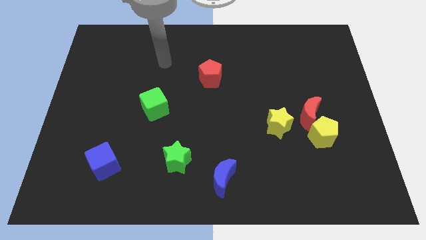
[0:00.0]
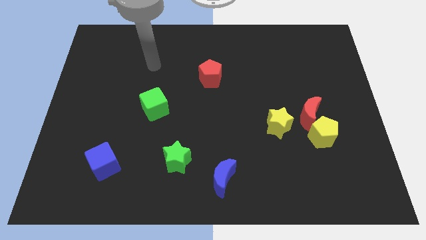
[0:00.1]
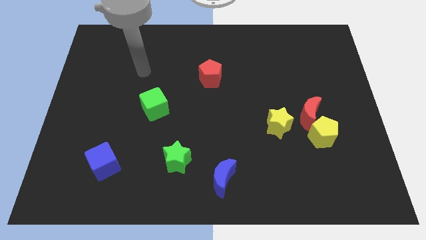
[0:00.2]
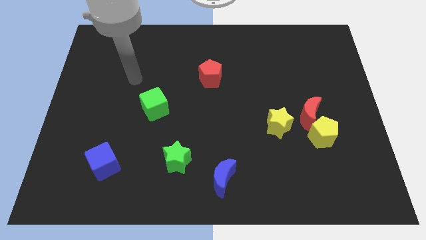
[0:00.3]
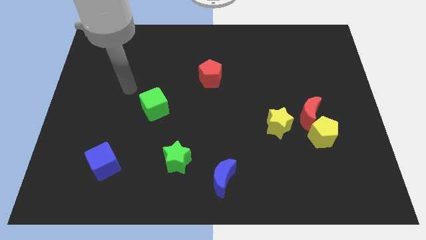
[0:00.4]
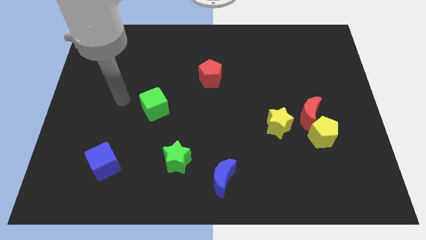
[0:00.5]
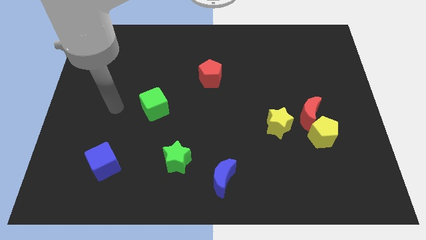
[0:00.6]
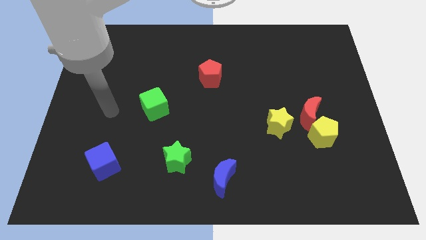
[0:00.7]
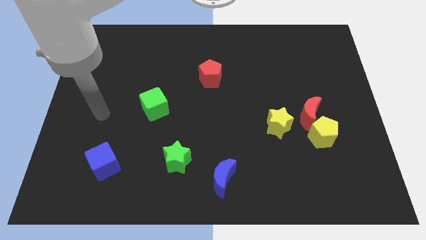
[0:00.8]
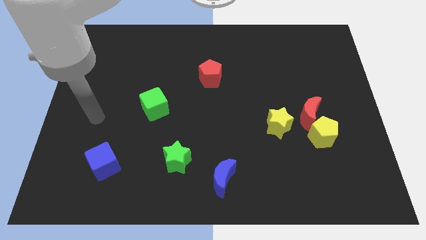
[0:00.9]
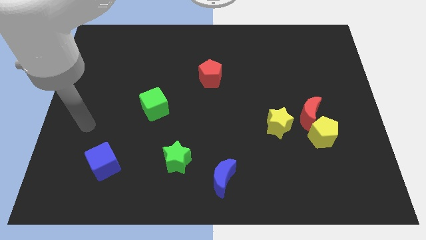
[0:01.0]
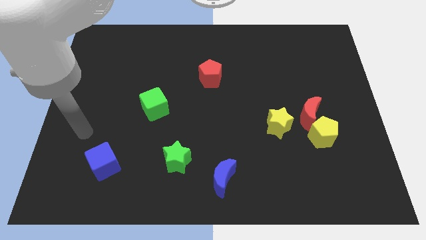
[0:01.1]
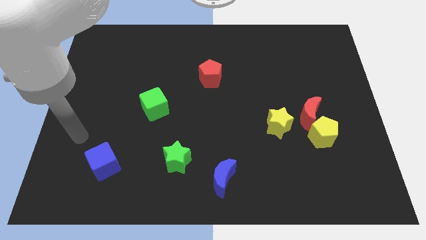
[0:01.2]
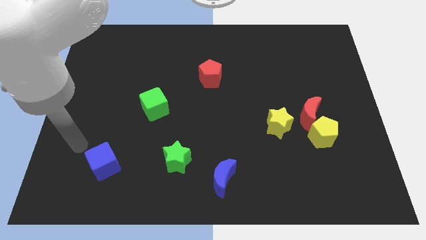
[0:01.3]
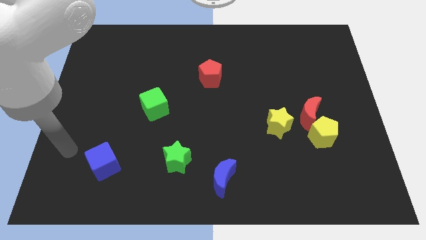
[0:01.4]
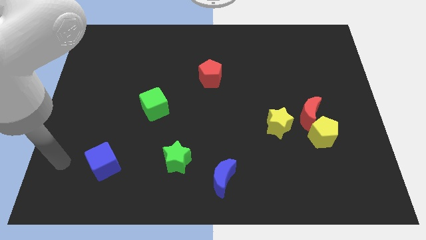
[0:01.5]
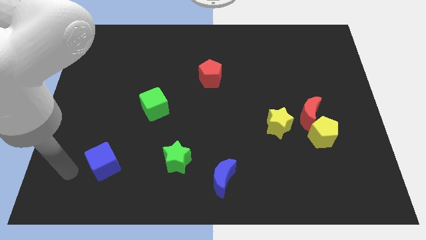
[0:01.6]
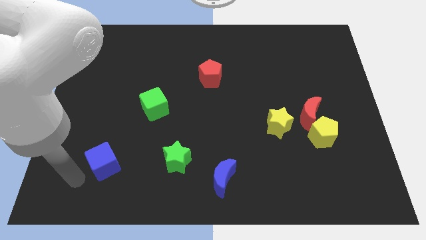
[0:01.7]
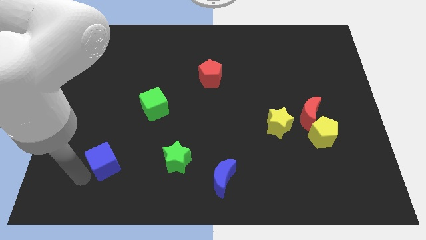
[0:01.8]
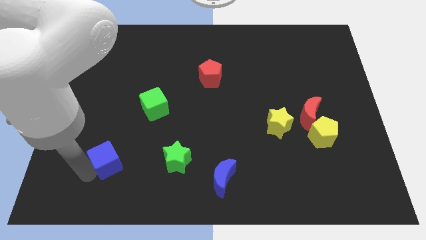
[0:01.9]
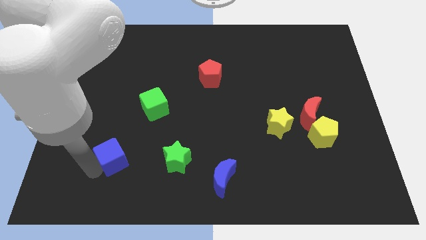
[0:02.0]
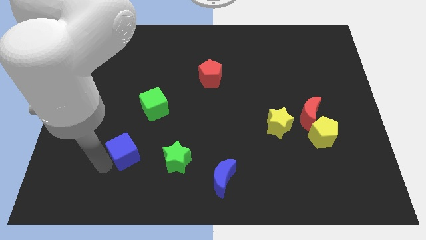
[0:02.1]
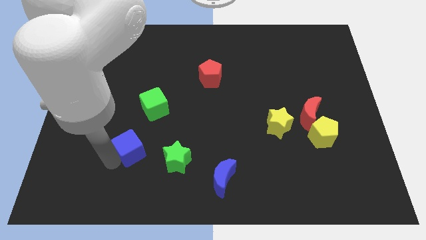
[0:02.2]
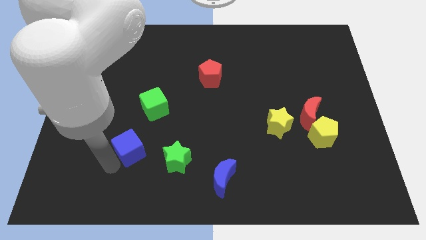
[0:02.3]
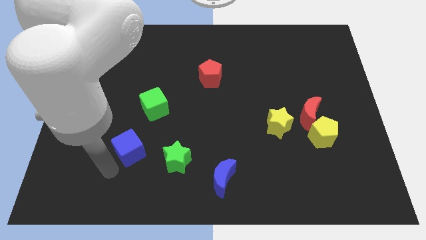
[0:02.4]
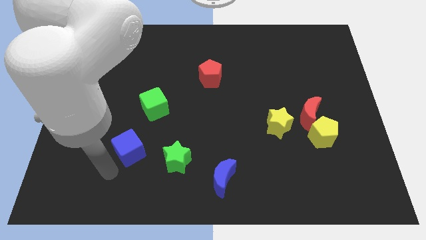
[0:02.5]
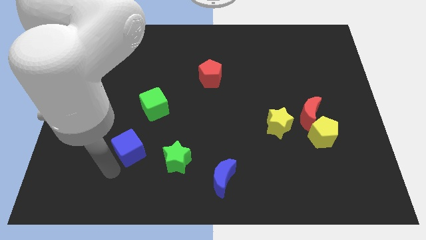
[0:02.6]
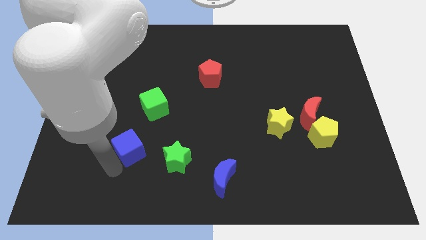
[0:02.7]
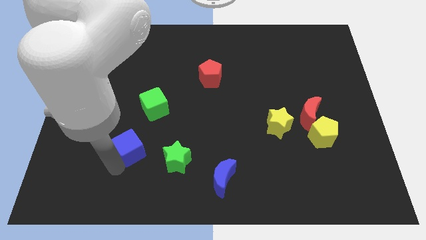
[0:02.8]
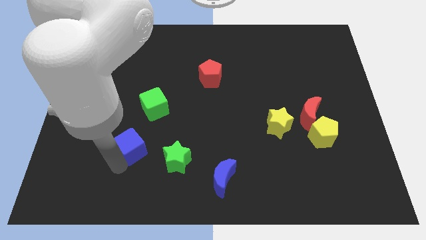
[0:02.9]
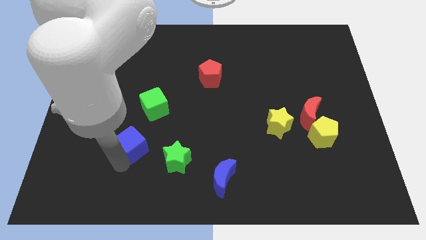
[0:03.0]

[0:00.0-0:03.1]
slightly move the blue cube upwards and right diagonally

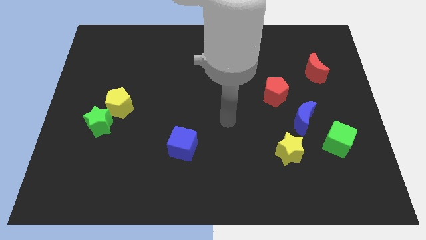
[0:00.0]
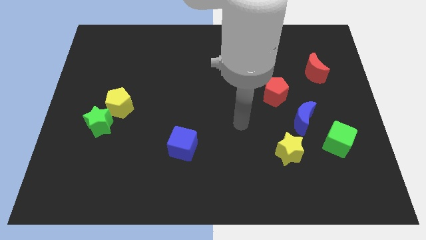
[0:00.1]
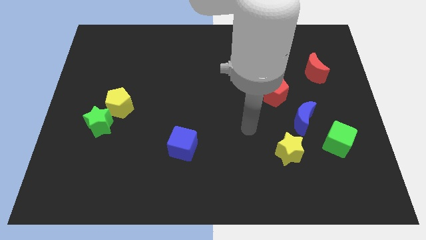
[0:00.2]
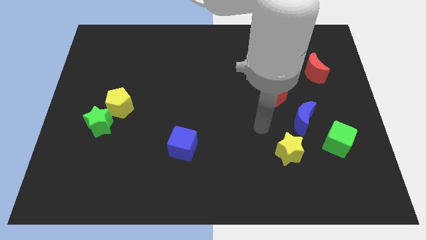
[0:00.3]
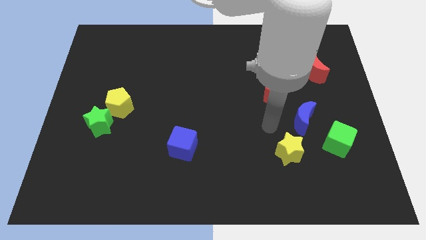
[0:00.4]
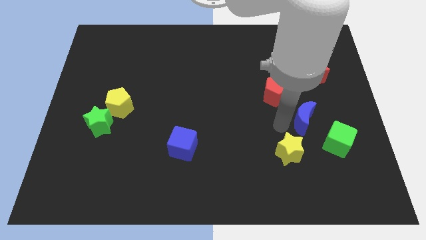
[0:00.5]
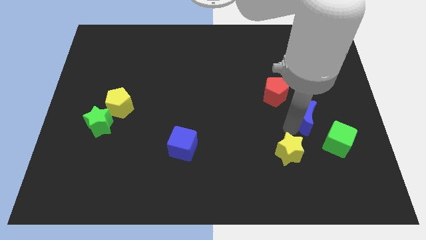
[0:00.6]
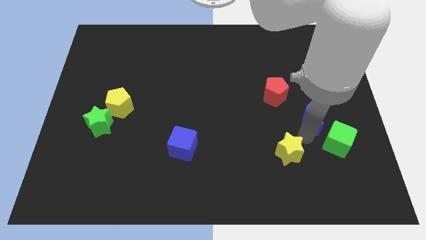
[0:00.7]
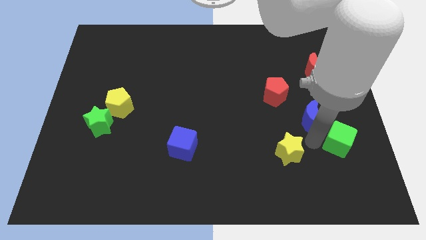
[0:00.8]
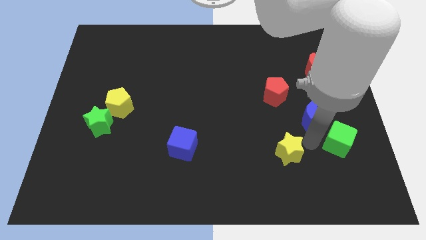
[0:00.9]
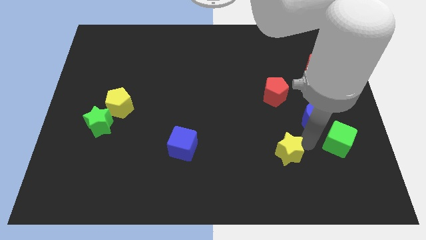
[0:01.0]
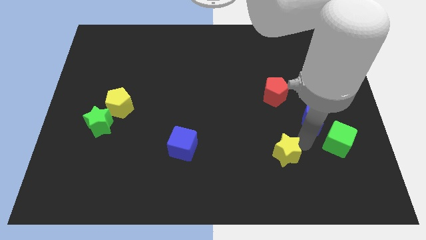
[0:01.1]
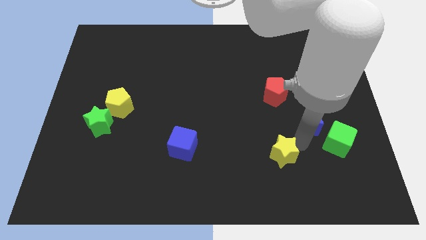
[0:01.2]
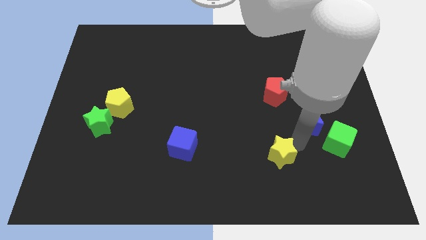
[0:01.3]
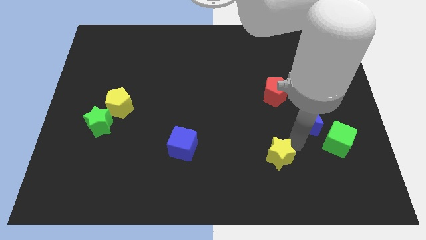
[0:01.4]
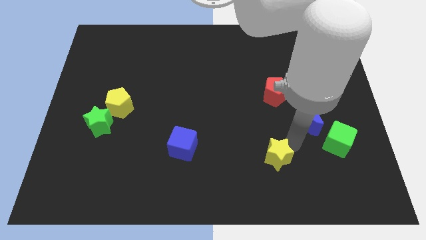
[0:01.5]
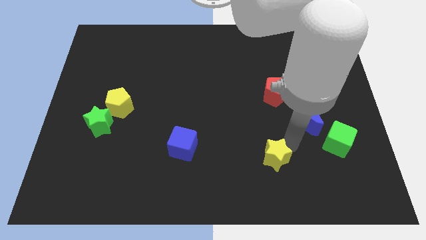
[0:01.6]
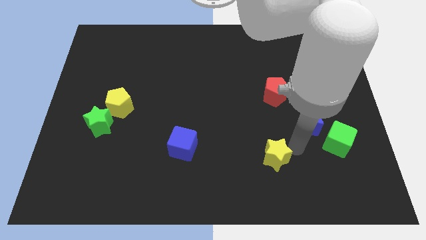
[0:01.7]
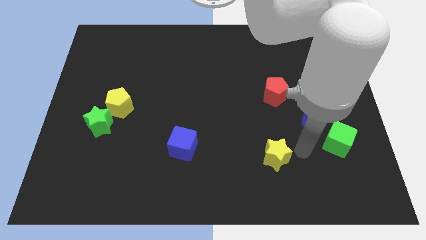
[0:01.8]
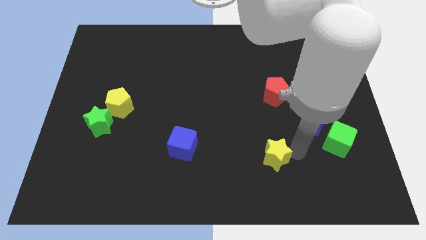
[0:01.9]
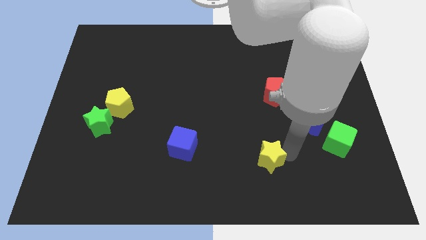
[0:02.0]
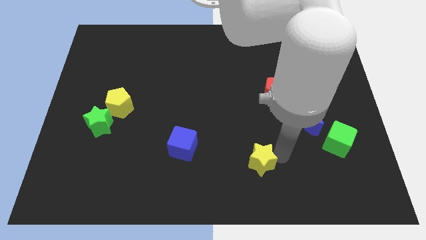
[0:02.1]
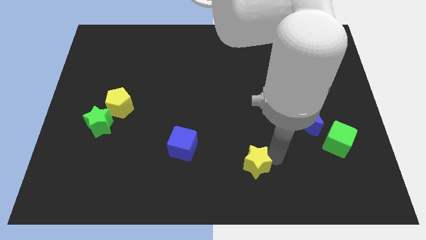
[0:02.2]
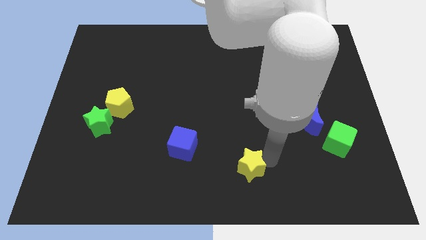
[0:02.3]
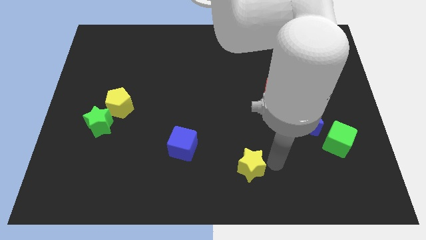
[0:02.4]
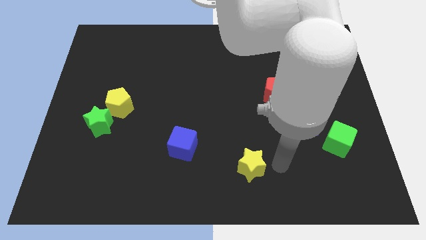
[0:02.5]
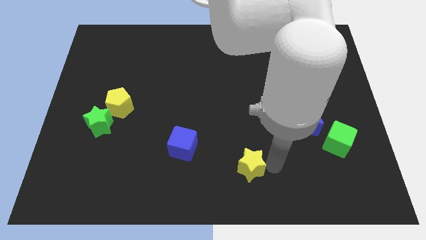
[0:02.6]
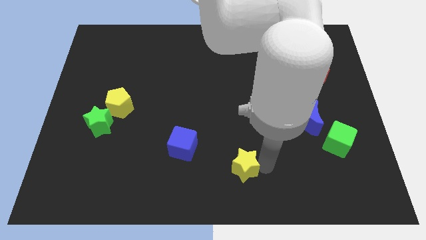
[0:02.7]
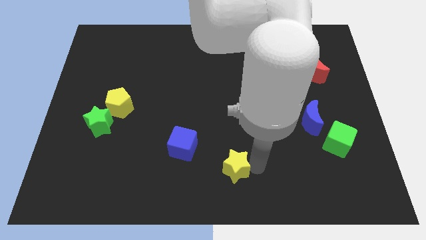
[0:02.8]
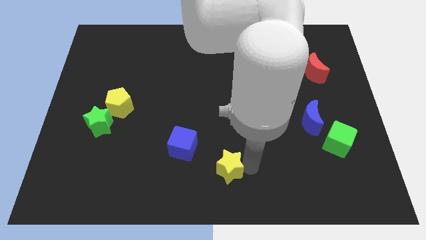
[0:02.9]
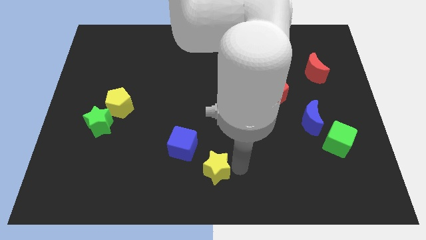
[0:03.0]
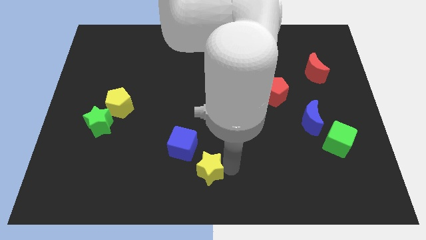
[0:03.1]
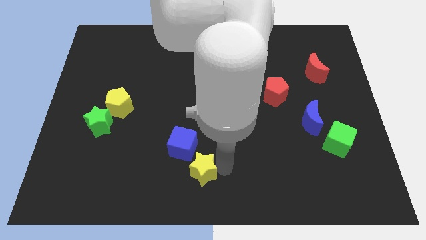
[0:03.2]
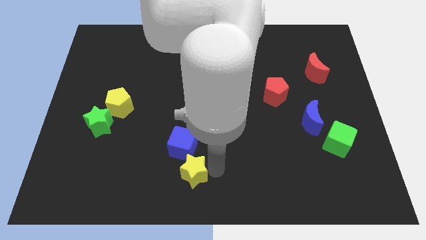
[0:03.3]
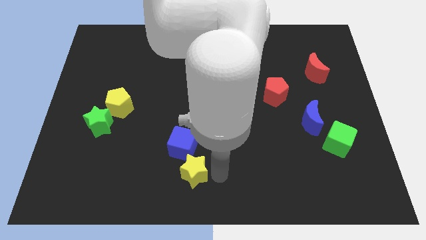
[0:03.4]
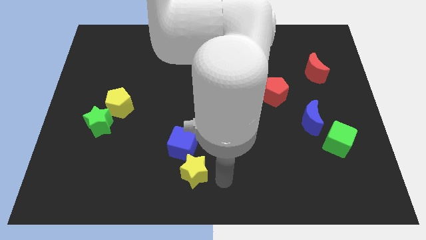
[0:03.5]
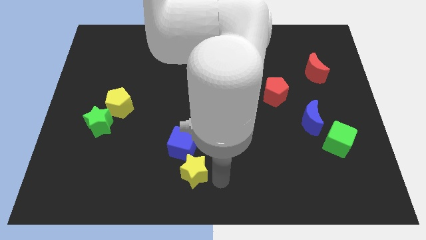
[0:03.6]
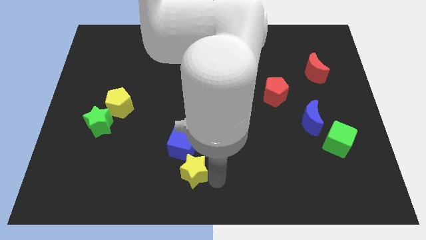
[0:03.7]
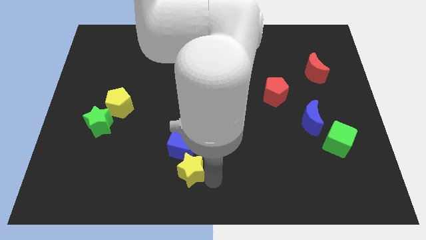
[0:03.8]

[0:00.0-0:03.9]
move the yellow star left

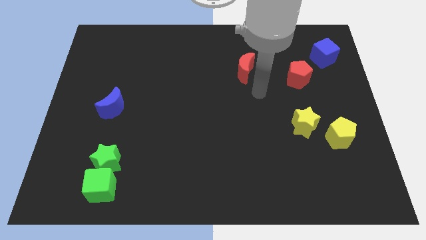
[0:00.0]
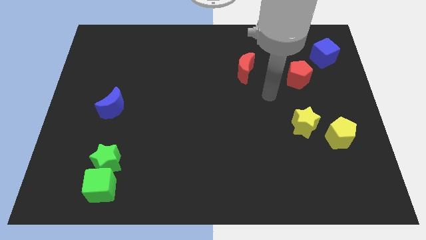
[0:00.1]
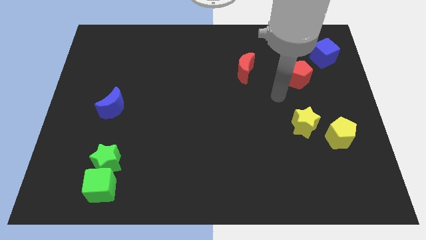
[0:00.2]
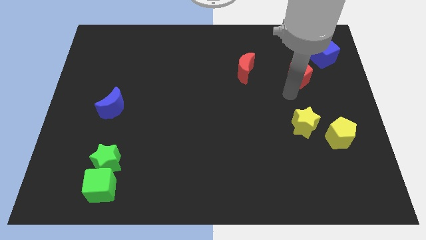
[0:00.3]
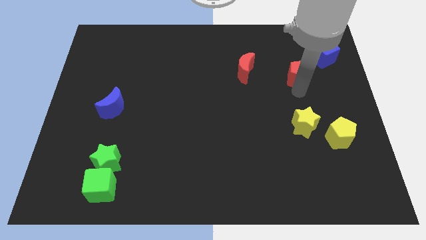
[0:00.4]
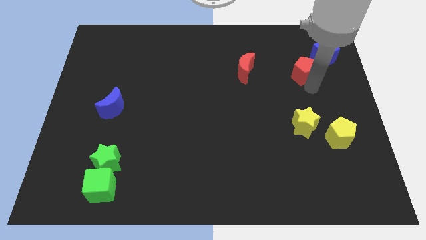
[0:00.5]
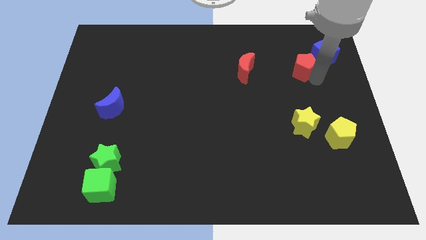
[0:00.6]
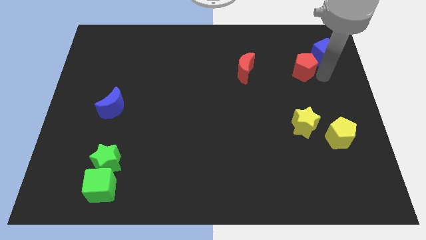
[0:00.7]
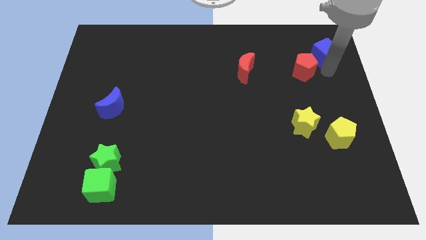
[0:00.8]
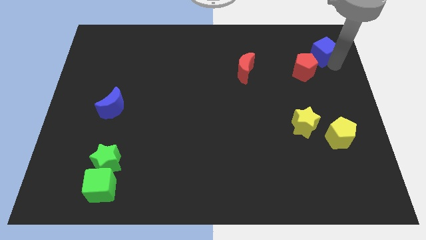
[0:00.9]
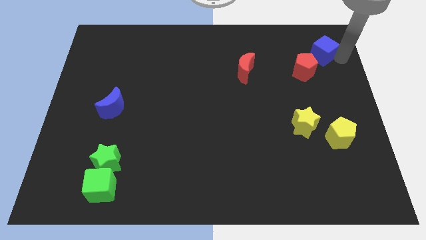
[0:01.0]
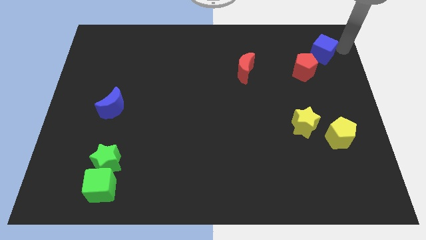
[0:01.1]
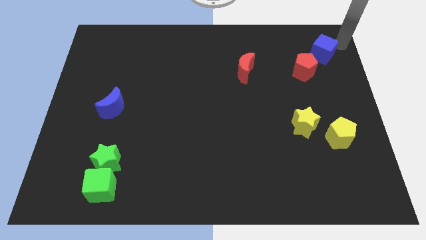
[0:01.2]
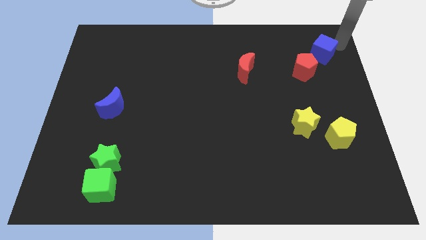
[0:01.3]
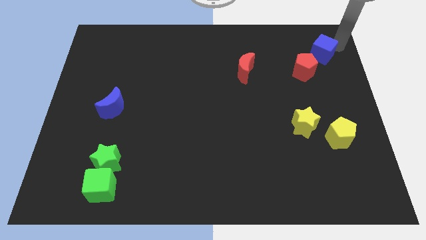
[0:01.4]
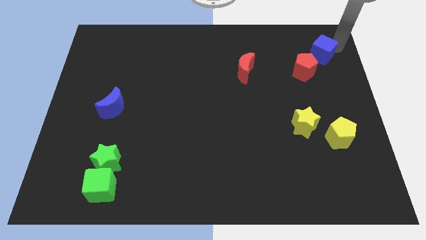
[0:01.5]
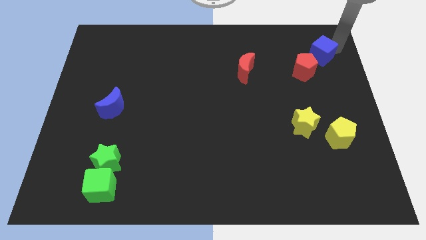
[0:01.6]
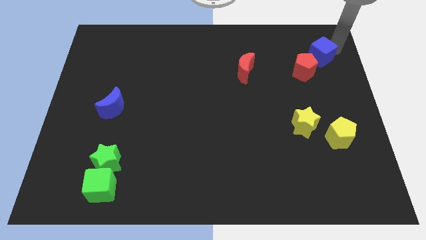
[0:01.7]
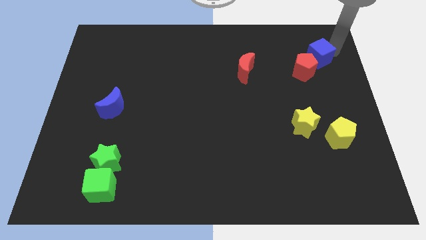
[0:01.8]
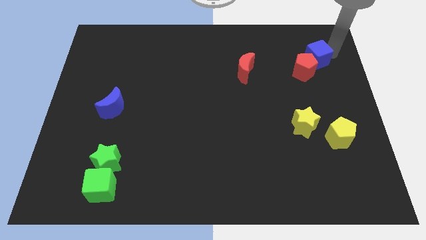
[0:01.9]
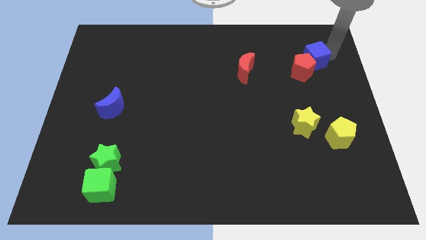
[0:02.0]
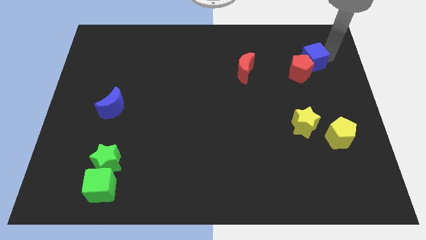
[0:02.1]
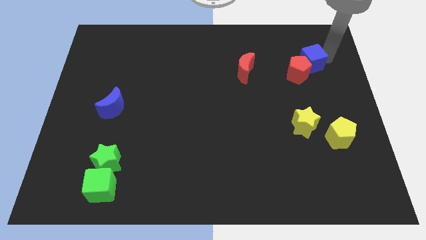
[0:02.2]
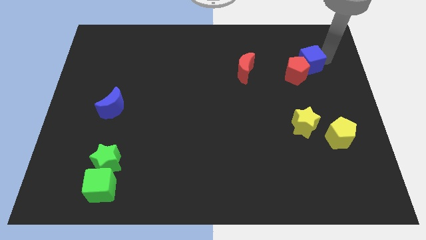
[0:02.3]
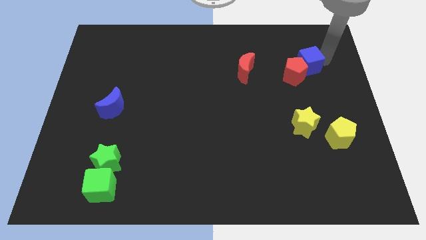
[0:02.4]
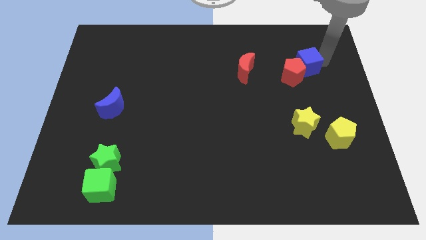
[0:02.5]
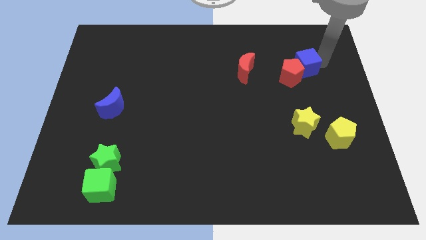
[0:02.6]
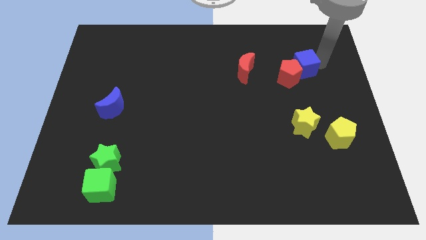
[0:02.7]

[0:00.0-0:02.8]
push the blue cube downwards and then left a little bit
